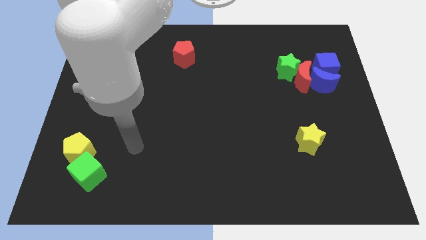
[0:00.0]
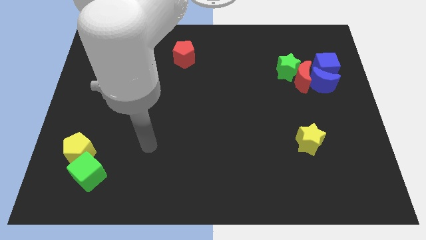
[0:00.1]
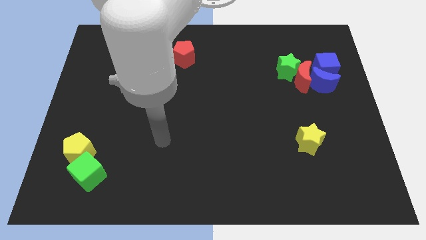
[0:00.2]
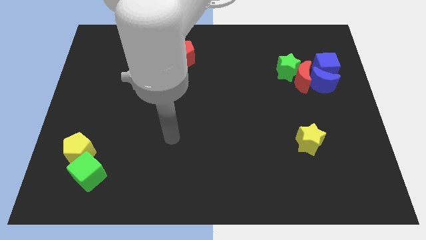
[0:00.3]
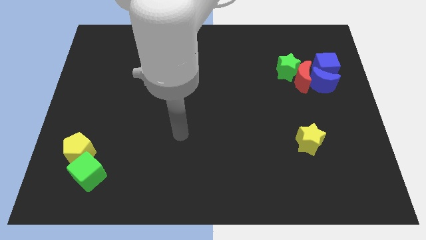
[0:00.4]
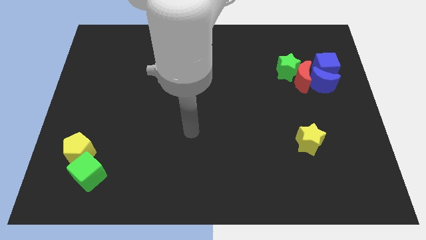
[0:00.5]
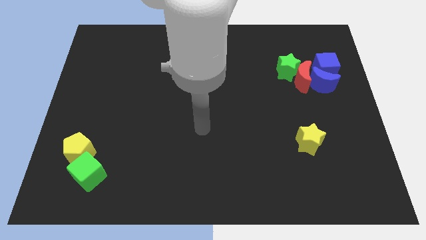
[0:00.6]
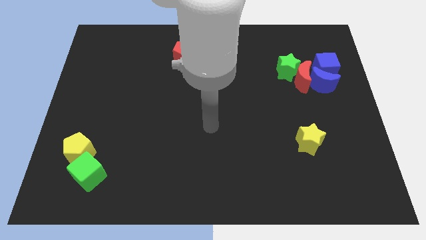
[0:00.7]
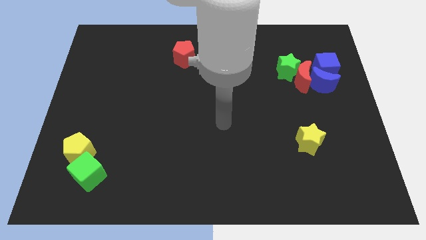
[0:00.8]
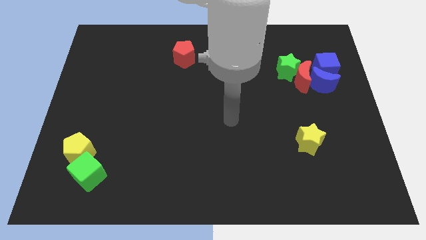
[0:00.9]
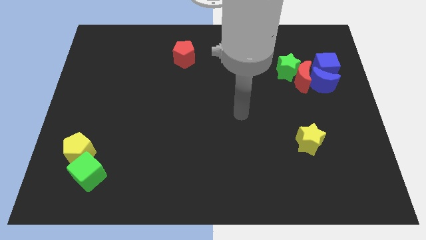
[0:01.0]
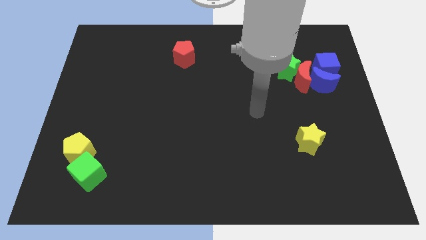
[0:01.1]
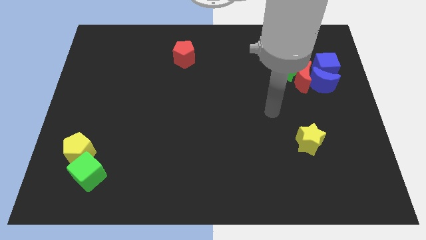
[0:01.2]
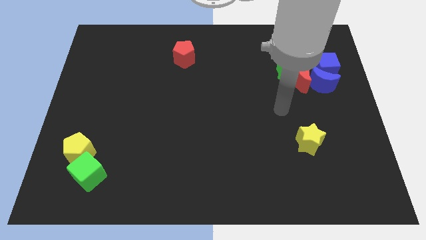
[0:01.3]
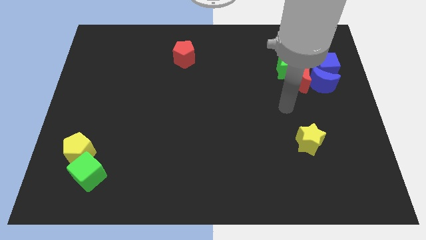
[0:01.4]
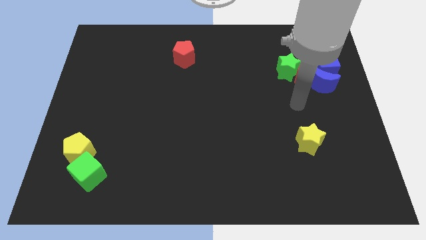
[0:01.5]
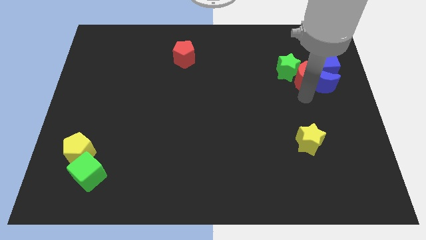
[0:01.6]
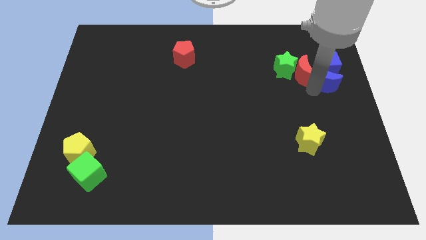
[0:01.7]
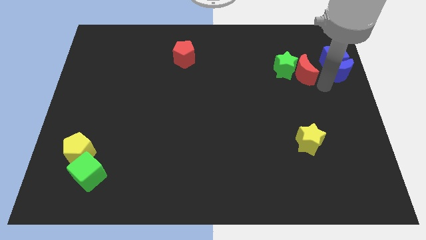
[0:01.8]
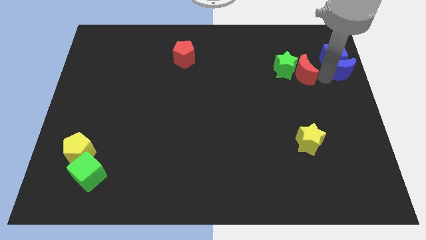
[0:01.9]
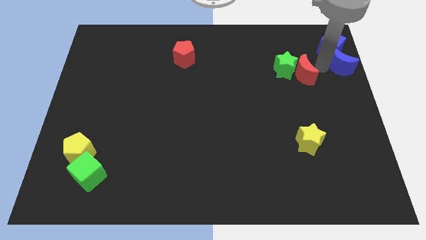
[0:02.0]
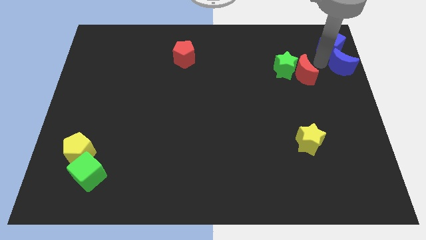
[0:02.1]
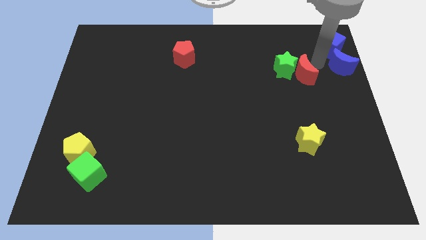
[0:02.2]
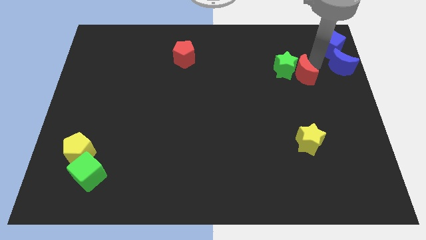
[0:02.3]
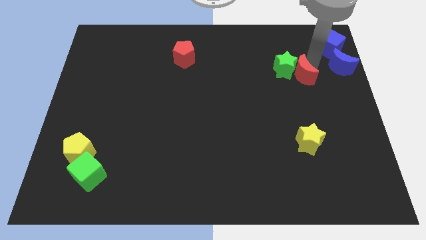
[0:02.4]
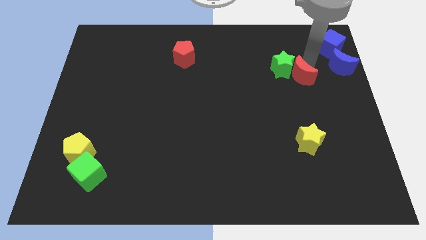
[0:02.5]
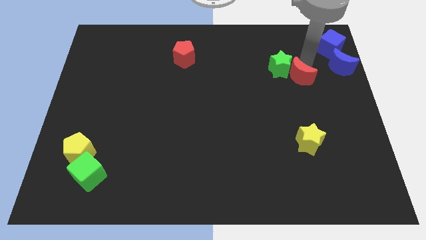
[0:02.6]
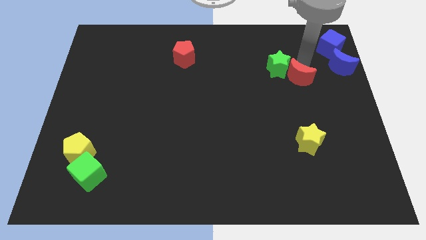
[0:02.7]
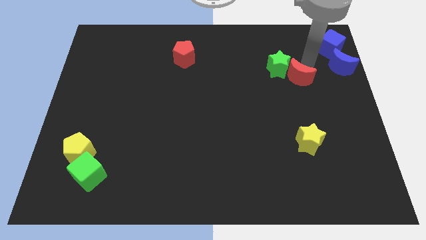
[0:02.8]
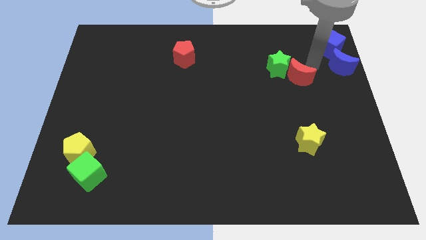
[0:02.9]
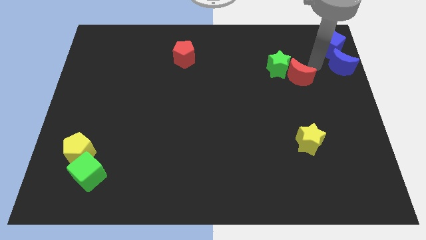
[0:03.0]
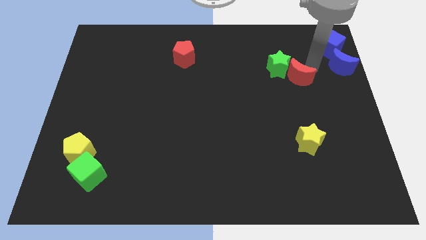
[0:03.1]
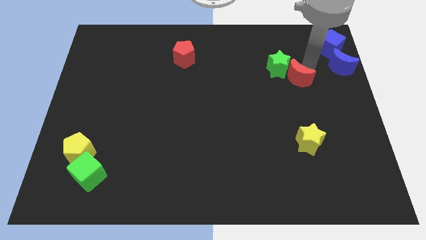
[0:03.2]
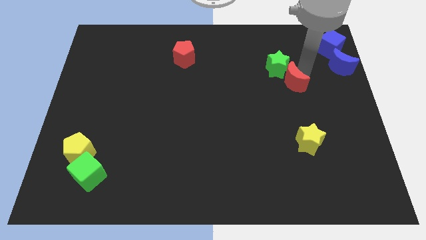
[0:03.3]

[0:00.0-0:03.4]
pull the red moon apart from the clump

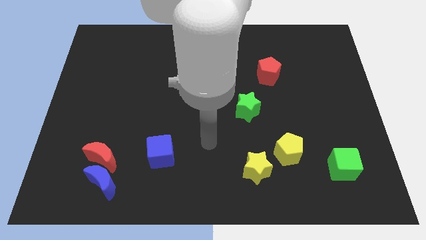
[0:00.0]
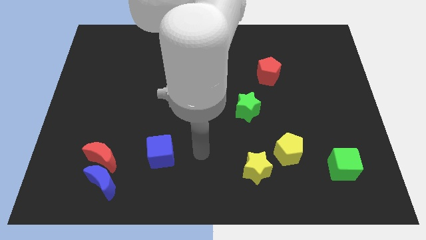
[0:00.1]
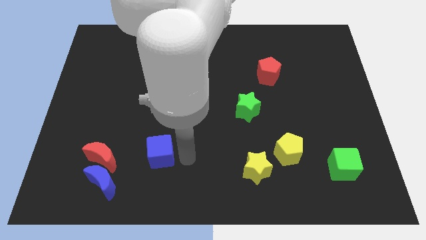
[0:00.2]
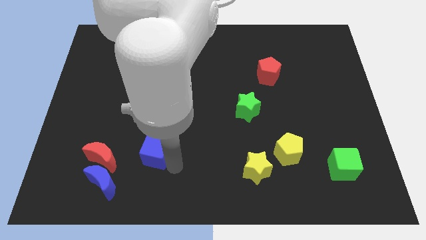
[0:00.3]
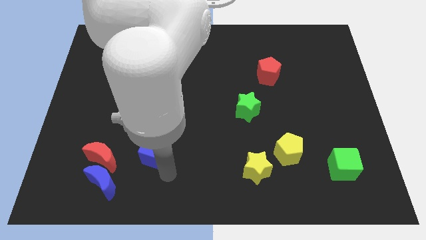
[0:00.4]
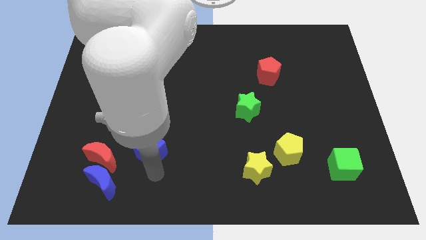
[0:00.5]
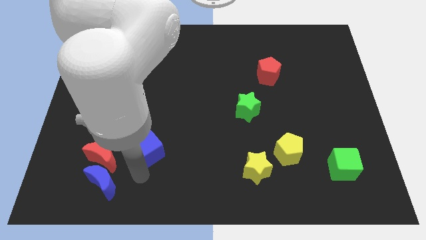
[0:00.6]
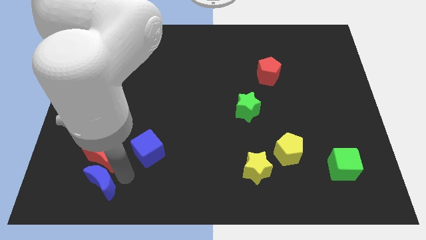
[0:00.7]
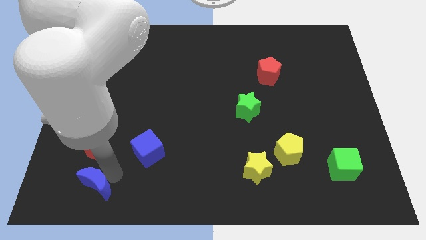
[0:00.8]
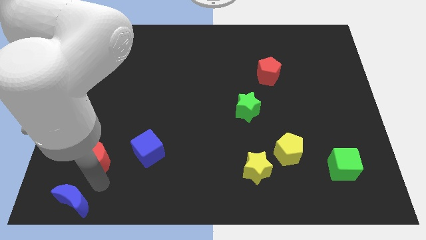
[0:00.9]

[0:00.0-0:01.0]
move the red moon away from the blue moon

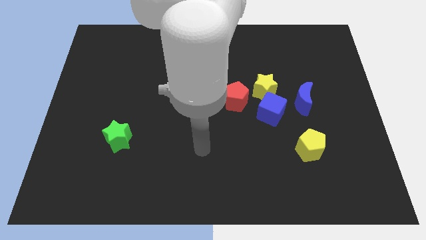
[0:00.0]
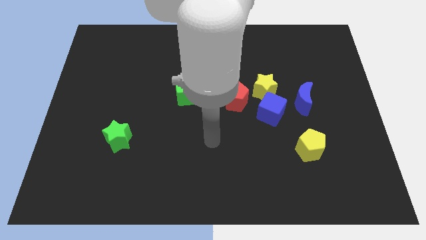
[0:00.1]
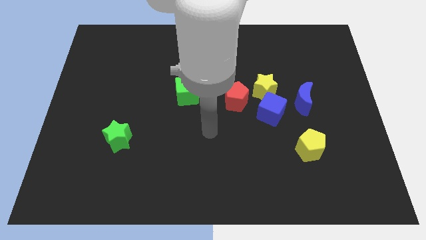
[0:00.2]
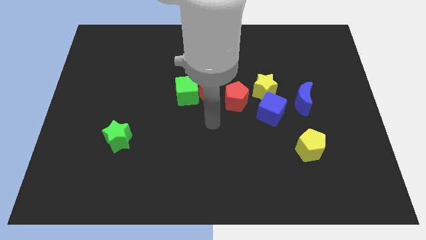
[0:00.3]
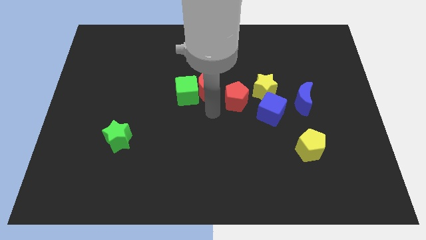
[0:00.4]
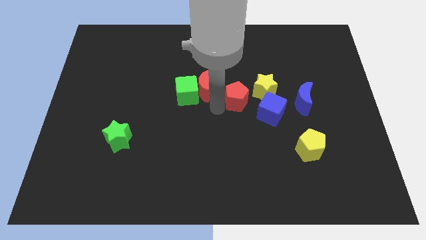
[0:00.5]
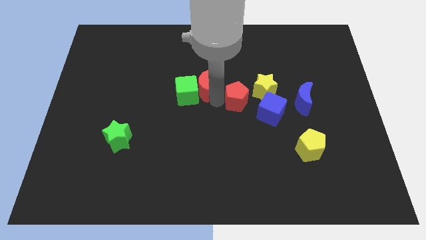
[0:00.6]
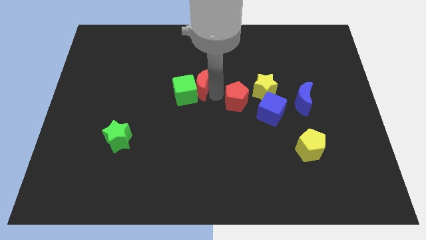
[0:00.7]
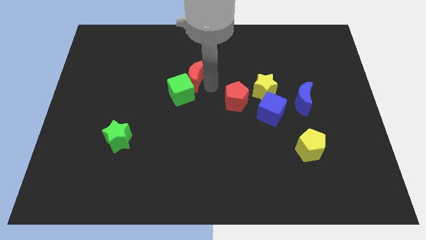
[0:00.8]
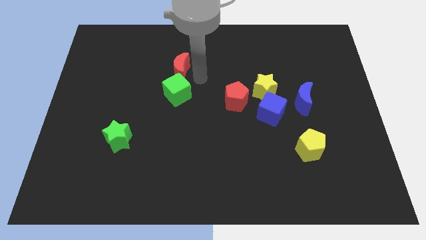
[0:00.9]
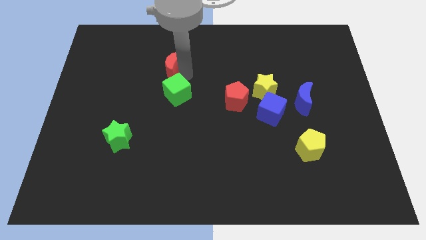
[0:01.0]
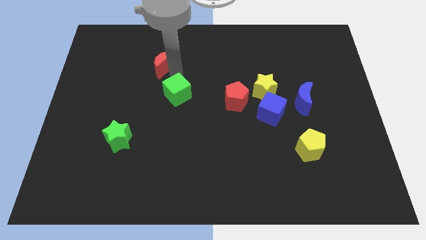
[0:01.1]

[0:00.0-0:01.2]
separate the green cube from the red moon

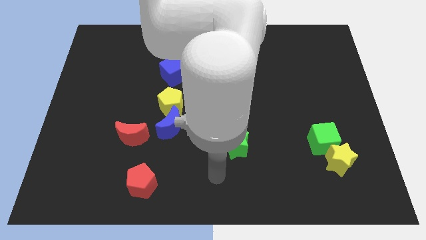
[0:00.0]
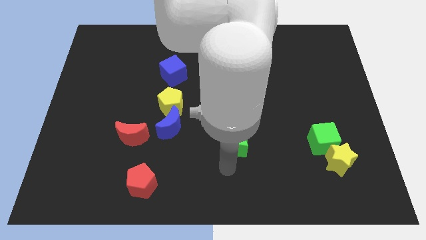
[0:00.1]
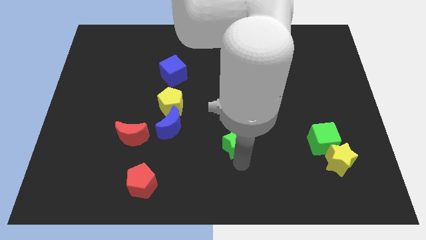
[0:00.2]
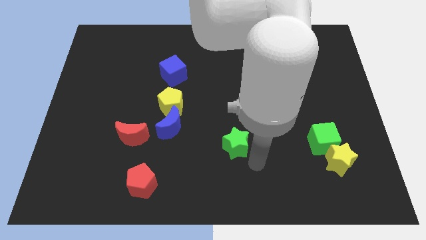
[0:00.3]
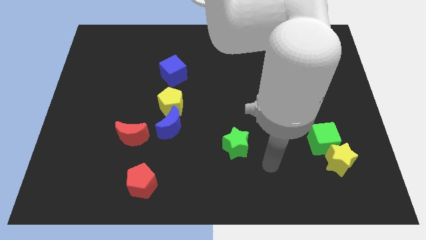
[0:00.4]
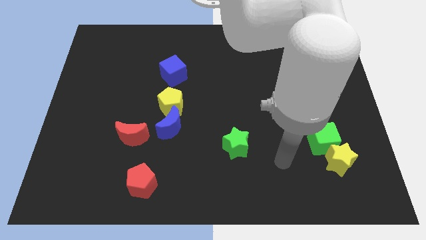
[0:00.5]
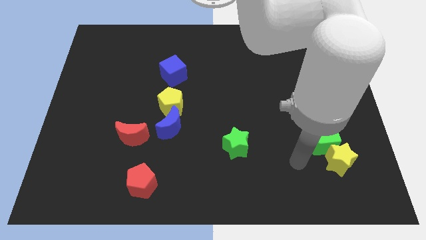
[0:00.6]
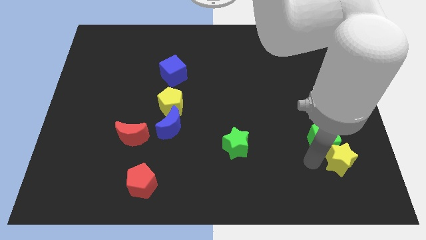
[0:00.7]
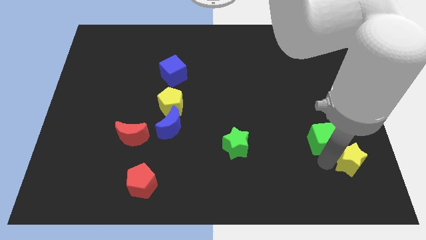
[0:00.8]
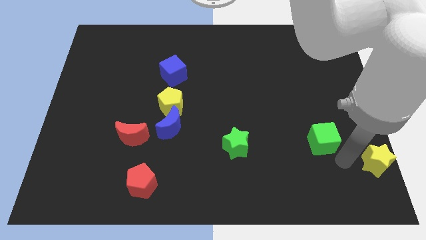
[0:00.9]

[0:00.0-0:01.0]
separate the green cube from the yellow star

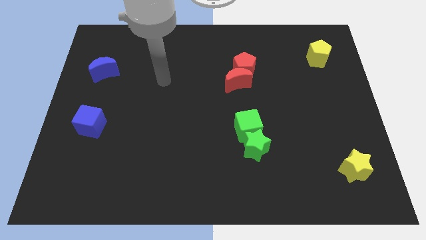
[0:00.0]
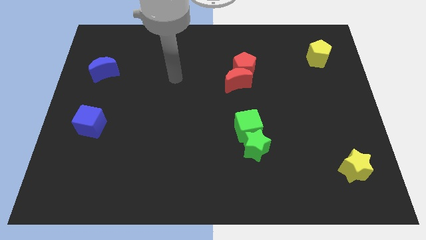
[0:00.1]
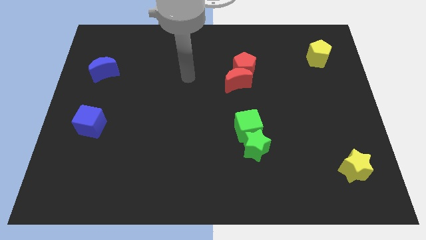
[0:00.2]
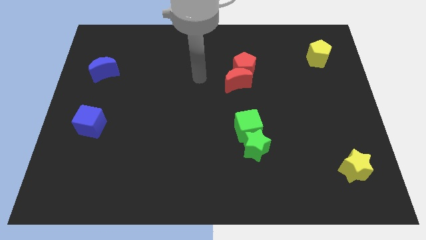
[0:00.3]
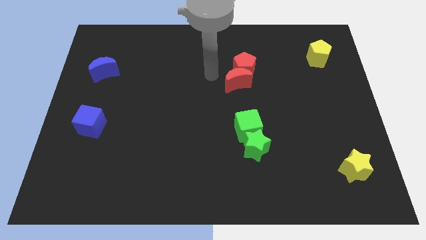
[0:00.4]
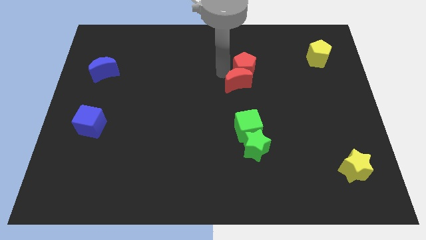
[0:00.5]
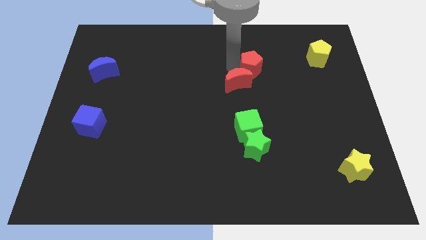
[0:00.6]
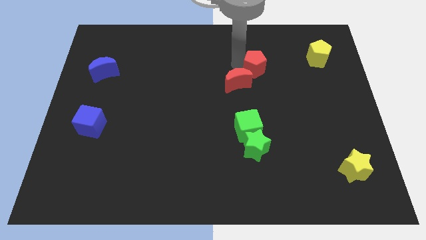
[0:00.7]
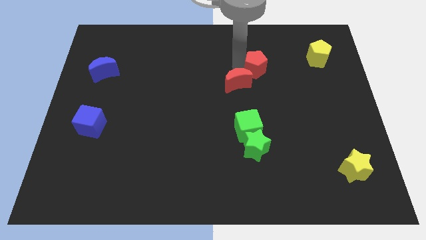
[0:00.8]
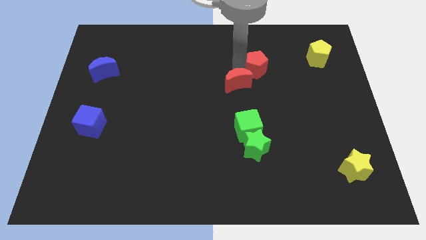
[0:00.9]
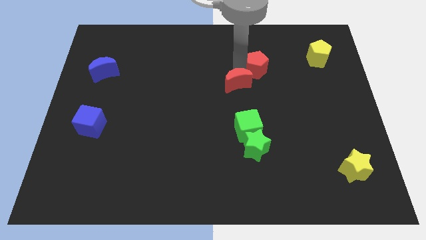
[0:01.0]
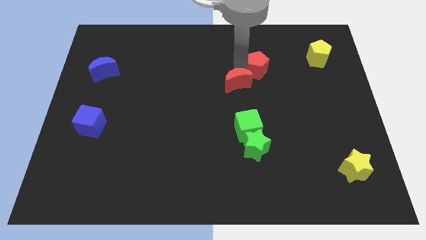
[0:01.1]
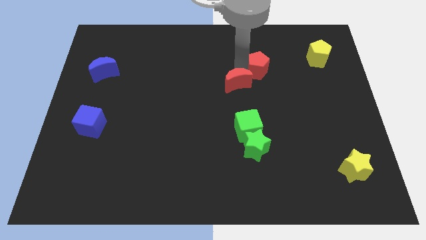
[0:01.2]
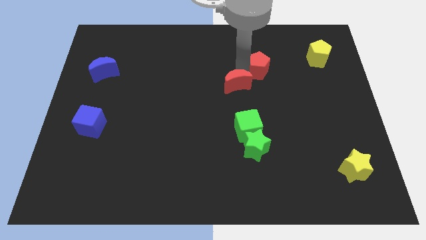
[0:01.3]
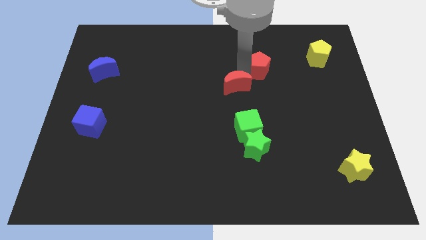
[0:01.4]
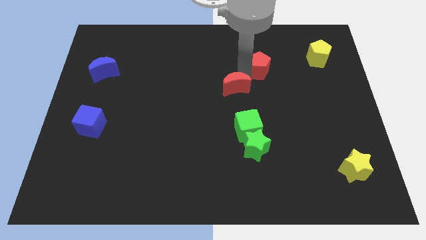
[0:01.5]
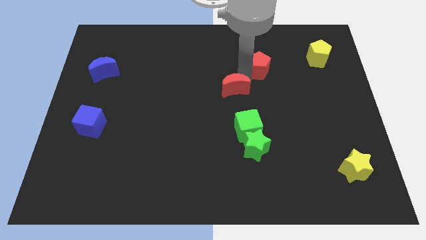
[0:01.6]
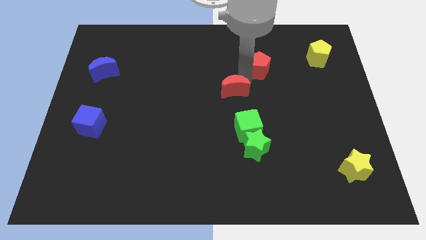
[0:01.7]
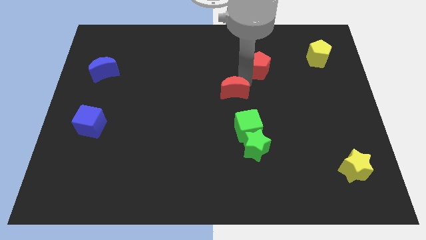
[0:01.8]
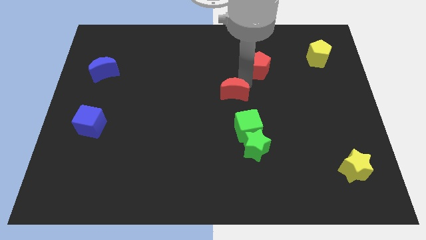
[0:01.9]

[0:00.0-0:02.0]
separate the red moon from the red pentagon

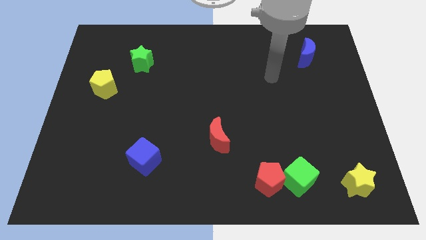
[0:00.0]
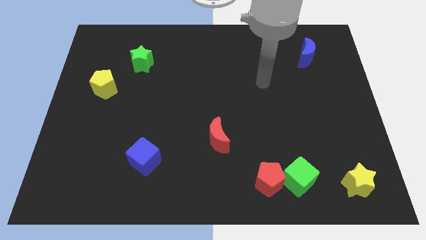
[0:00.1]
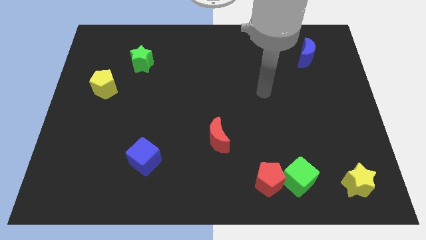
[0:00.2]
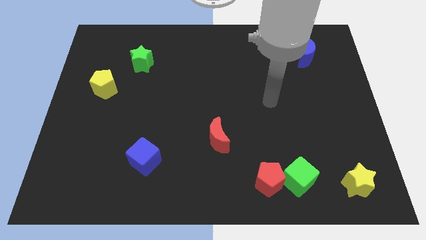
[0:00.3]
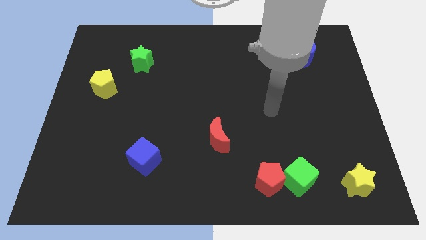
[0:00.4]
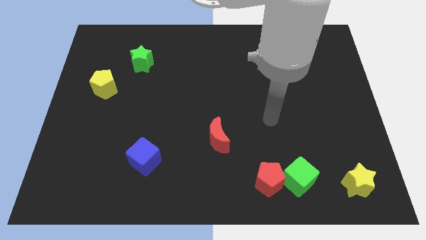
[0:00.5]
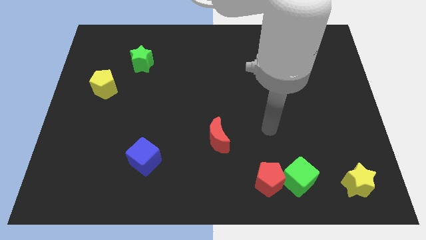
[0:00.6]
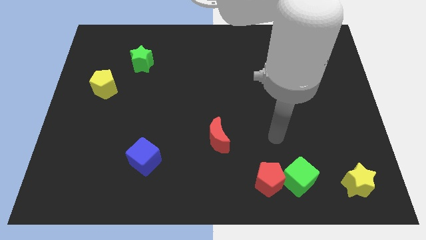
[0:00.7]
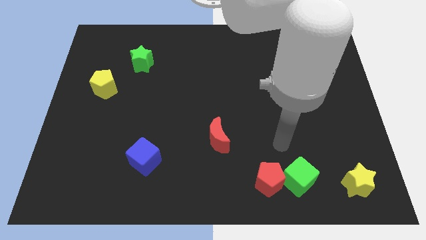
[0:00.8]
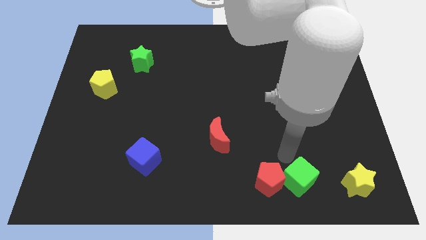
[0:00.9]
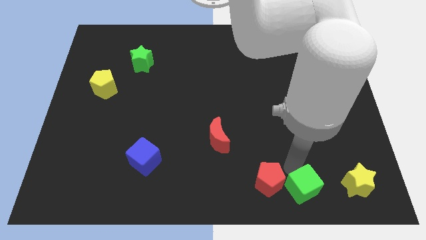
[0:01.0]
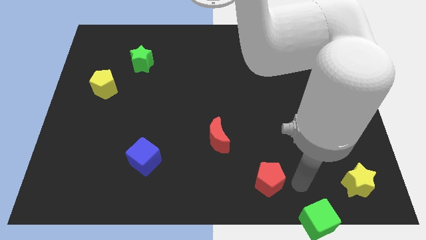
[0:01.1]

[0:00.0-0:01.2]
move the red pentagon away from the green cube
